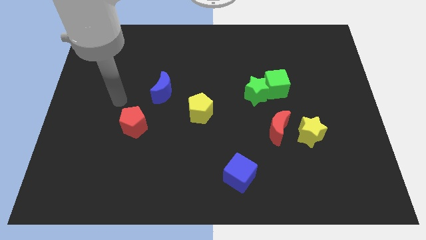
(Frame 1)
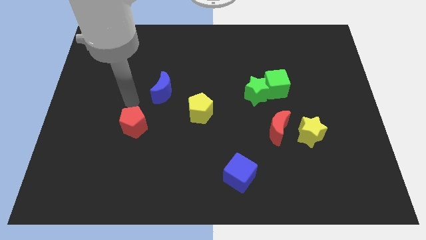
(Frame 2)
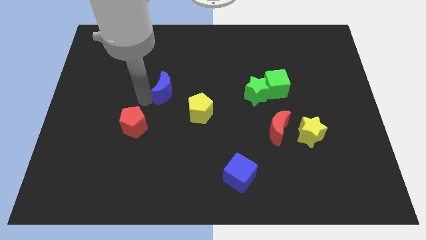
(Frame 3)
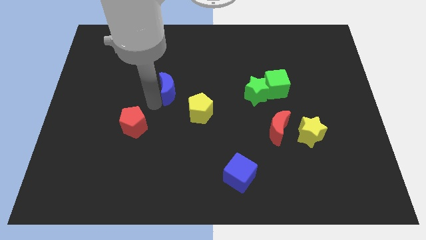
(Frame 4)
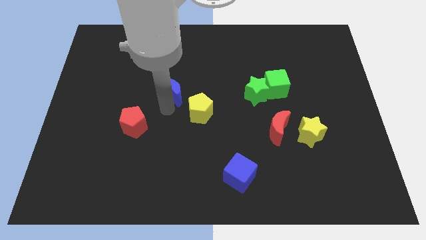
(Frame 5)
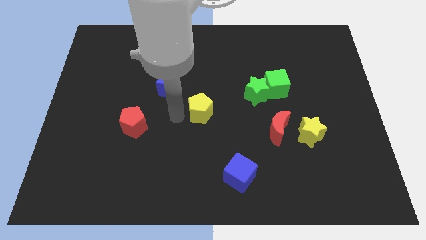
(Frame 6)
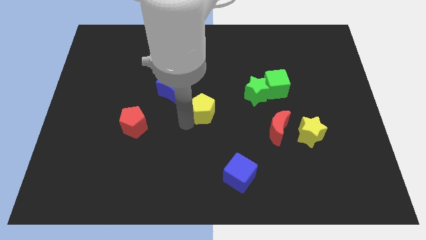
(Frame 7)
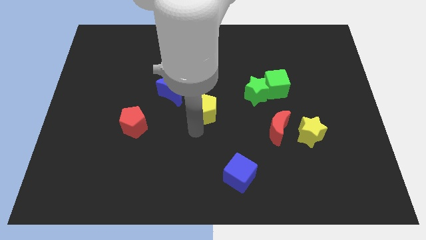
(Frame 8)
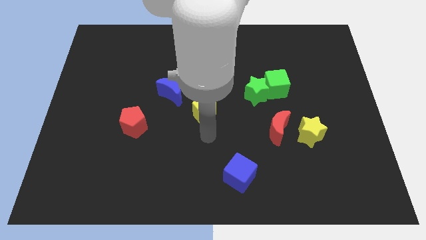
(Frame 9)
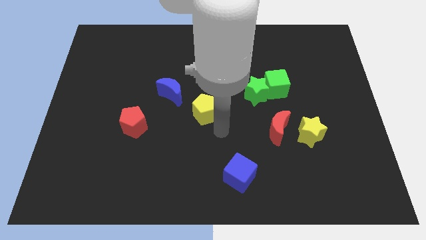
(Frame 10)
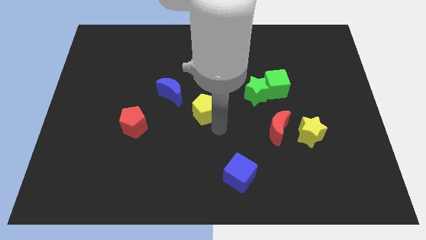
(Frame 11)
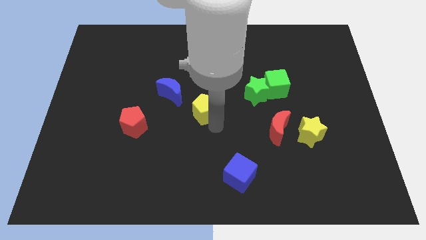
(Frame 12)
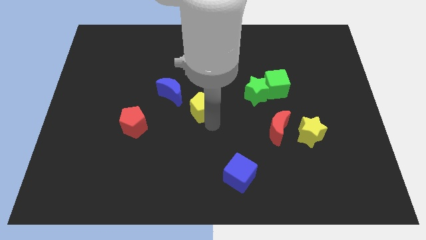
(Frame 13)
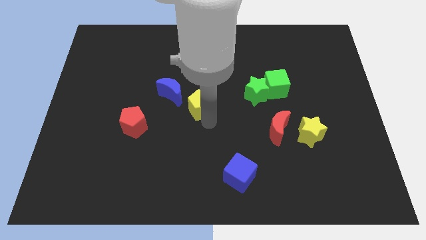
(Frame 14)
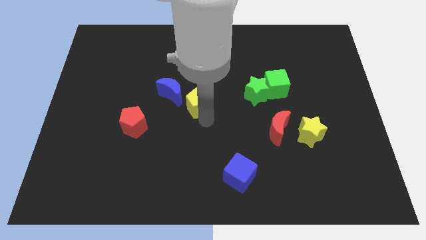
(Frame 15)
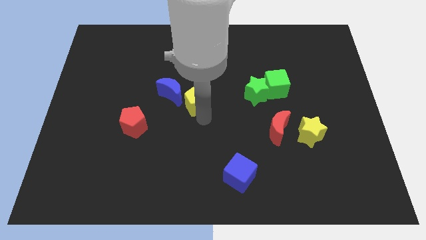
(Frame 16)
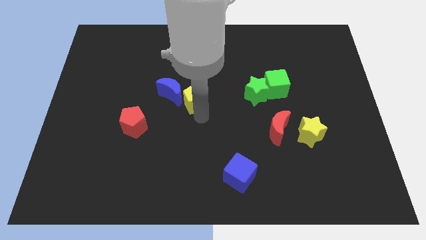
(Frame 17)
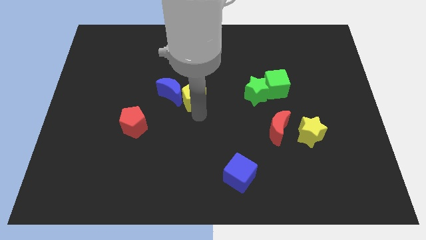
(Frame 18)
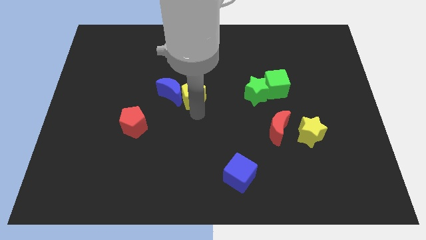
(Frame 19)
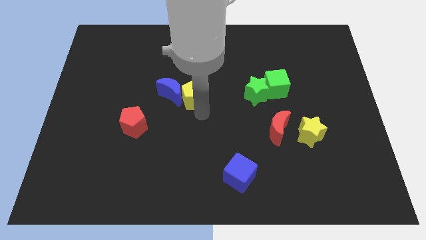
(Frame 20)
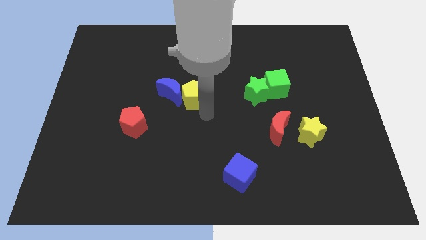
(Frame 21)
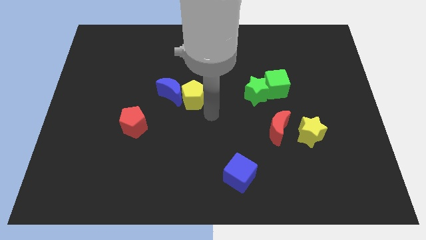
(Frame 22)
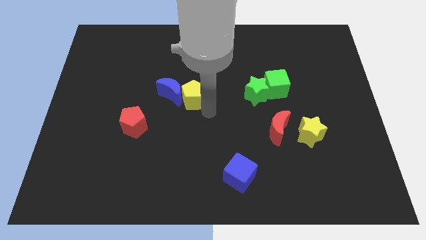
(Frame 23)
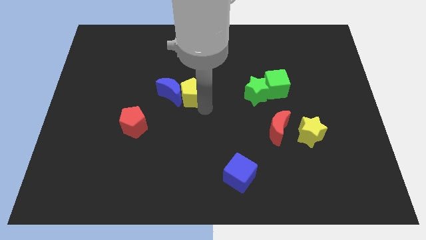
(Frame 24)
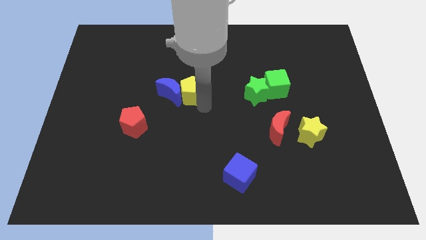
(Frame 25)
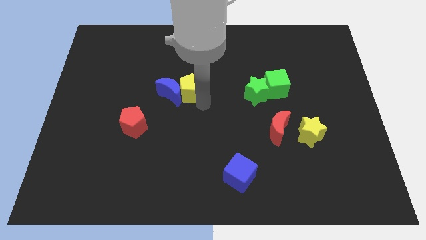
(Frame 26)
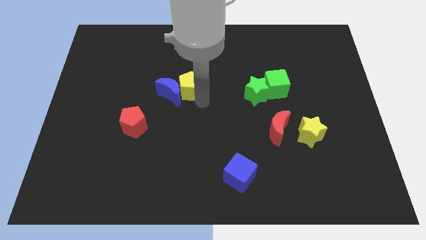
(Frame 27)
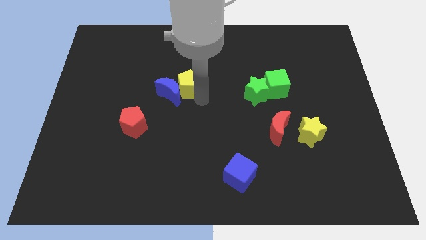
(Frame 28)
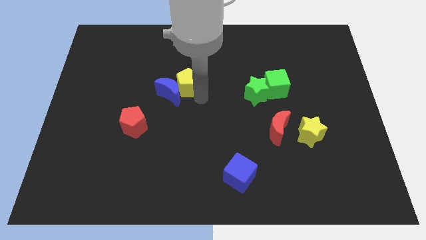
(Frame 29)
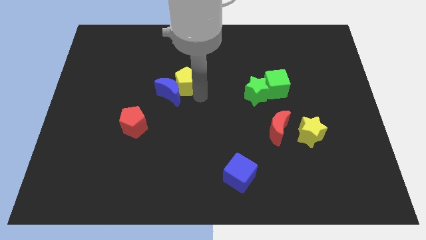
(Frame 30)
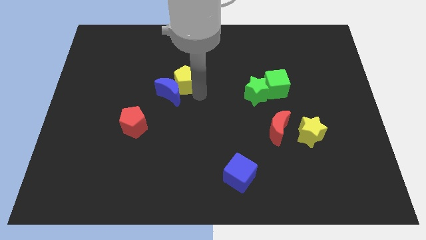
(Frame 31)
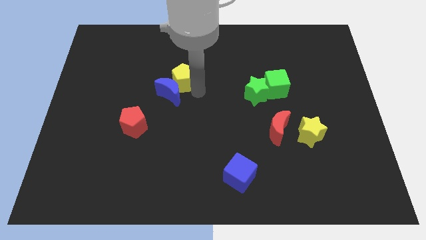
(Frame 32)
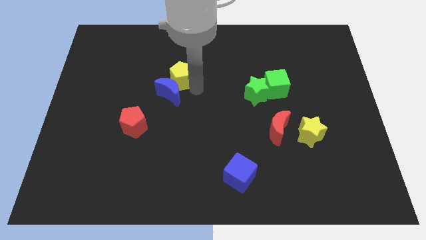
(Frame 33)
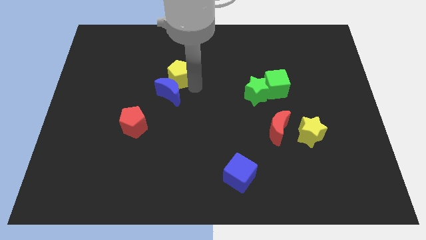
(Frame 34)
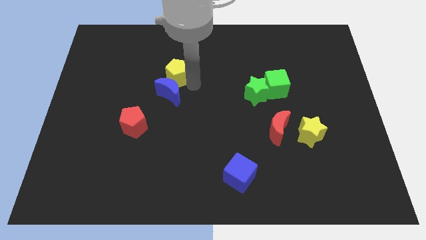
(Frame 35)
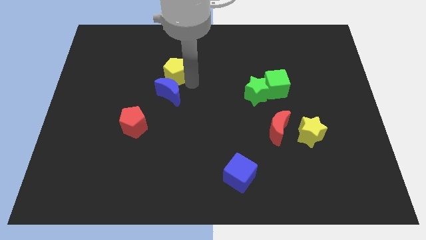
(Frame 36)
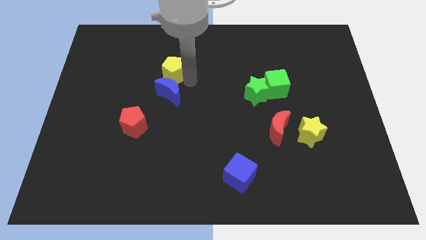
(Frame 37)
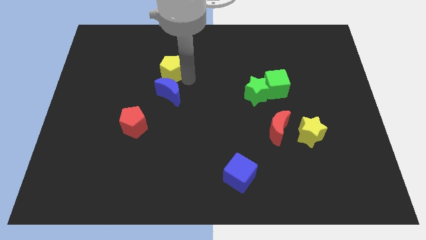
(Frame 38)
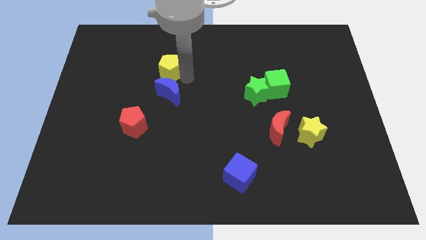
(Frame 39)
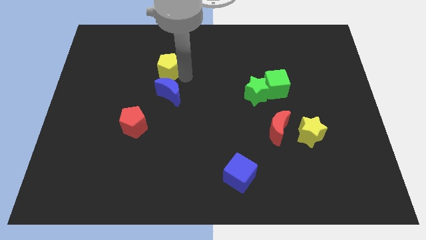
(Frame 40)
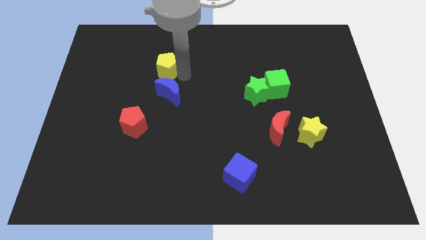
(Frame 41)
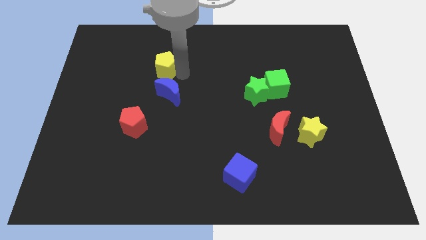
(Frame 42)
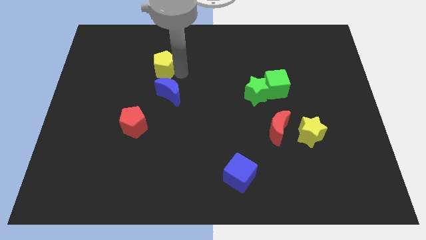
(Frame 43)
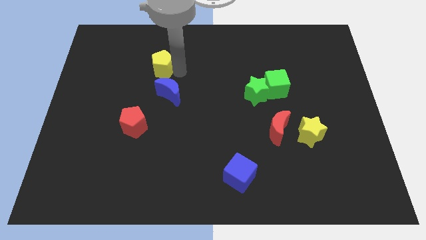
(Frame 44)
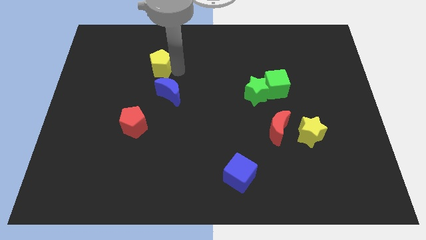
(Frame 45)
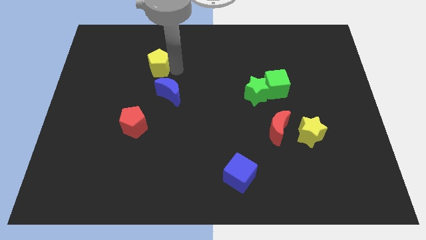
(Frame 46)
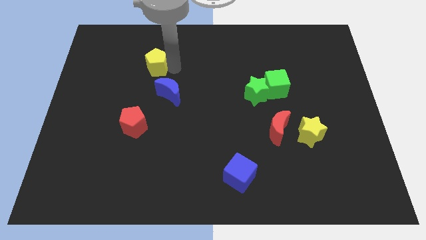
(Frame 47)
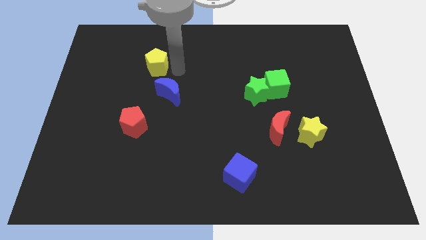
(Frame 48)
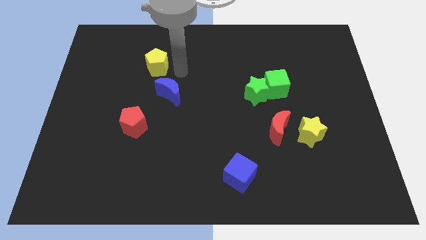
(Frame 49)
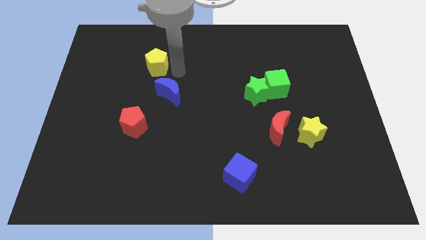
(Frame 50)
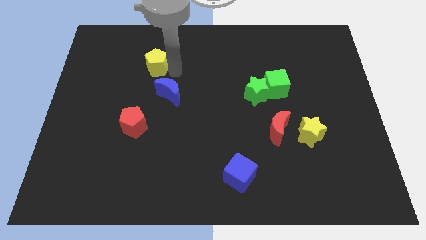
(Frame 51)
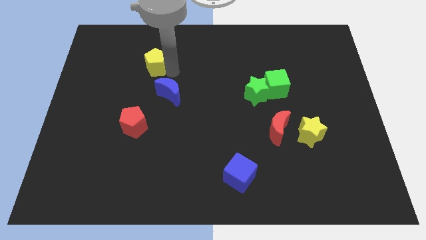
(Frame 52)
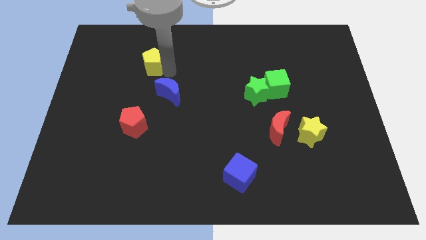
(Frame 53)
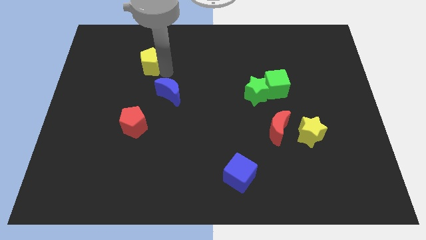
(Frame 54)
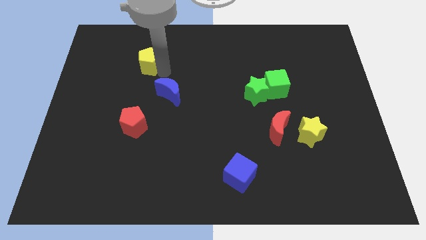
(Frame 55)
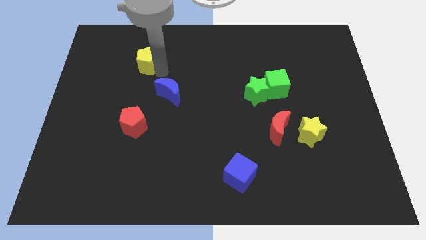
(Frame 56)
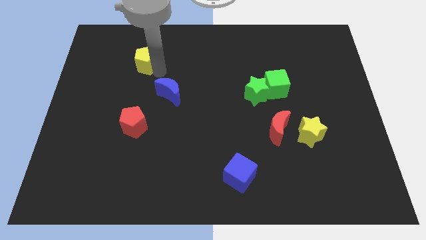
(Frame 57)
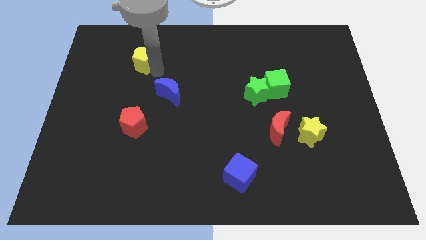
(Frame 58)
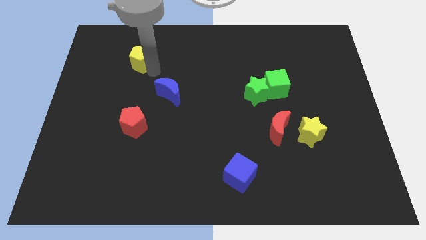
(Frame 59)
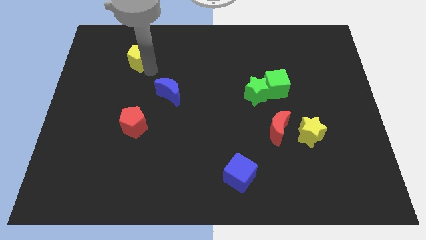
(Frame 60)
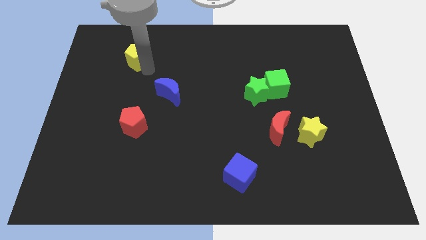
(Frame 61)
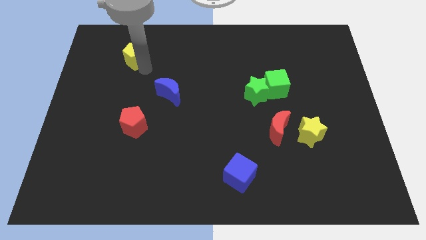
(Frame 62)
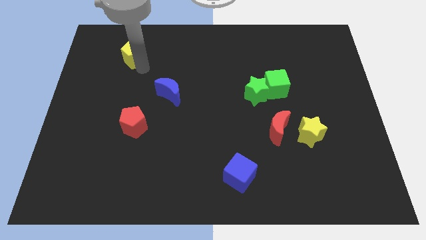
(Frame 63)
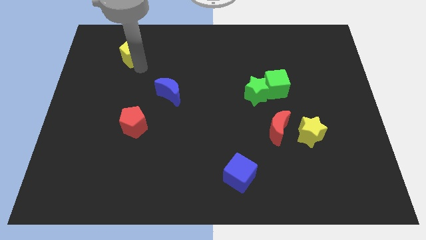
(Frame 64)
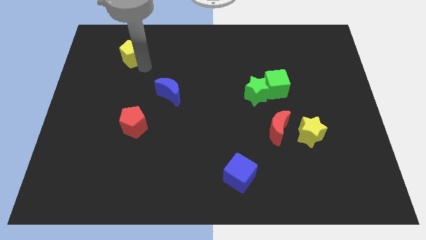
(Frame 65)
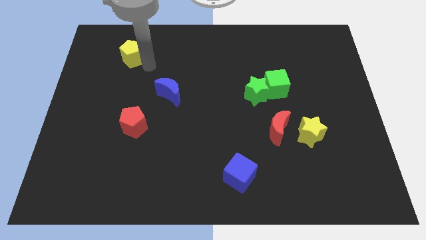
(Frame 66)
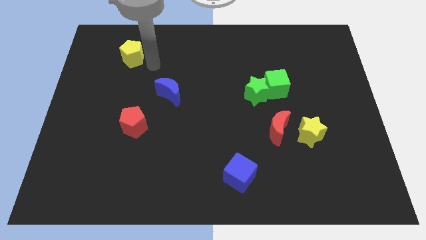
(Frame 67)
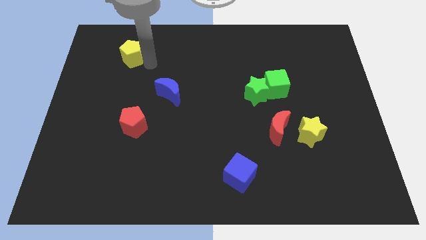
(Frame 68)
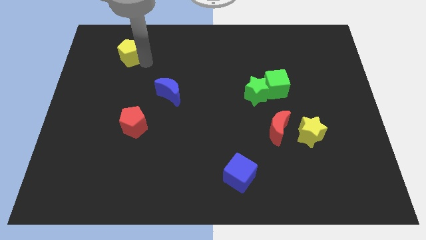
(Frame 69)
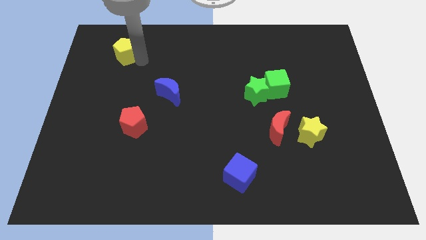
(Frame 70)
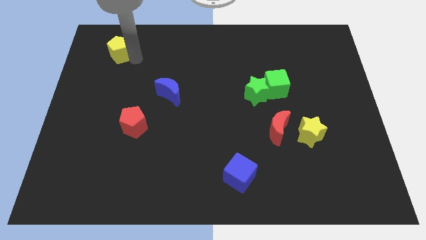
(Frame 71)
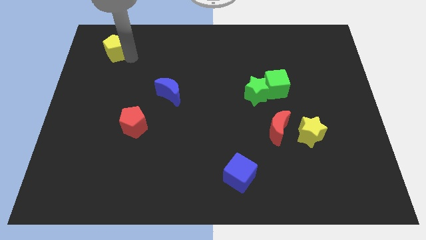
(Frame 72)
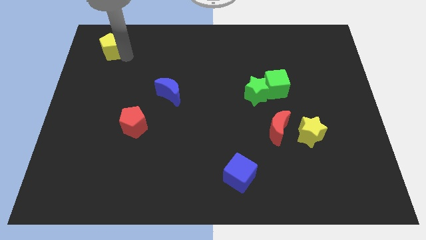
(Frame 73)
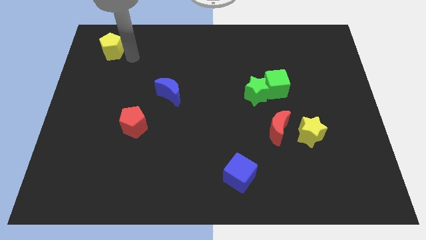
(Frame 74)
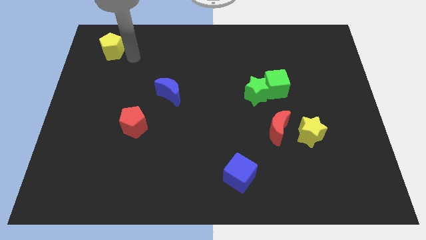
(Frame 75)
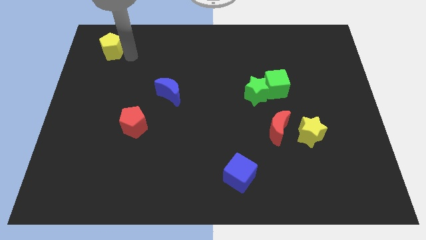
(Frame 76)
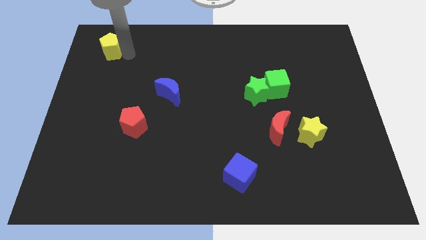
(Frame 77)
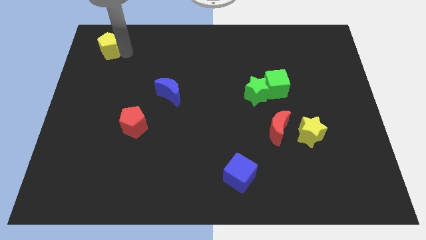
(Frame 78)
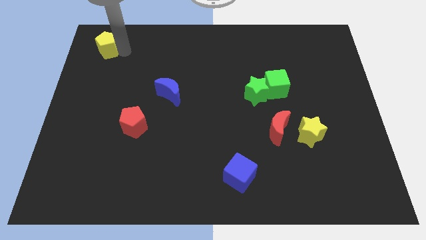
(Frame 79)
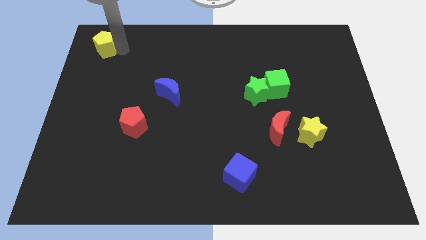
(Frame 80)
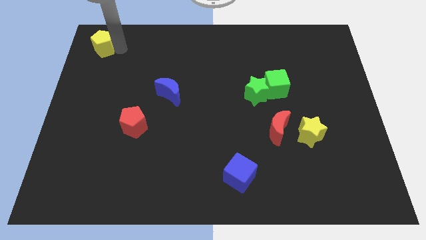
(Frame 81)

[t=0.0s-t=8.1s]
put the yellow pentagon to the top left
